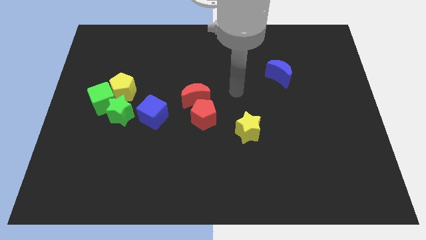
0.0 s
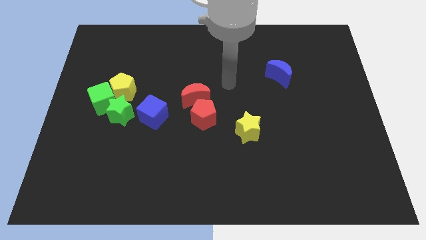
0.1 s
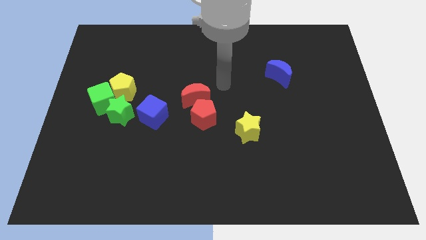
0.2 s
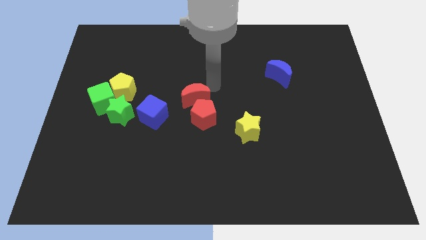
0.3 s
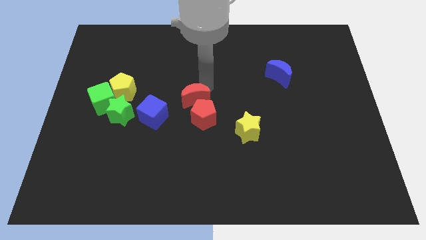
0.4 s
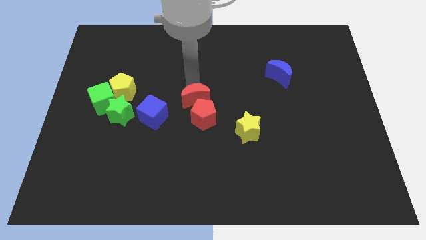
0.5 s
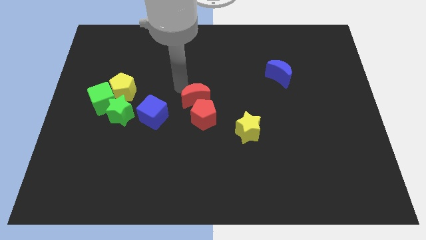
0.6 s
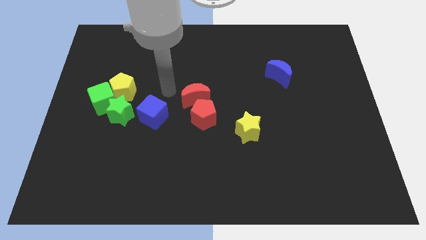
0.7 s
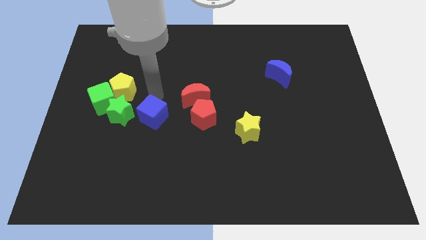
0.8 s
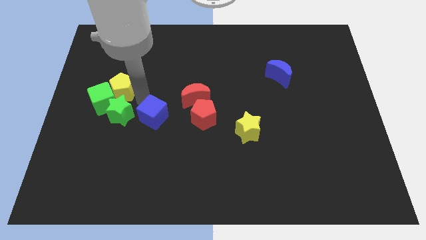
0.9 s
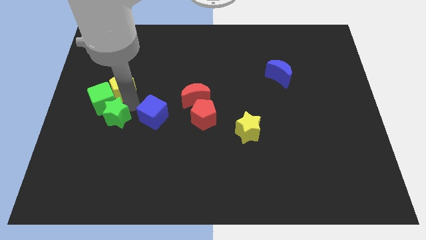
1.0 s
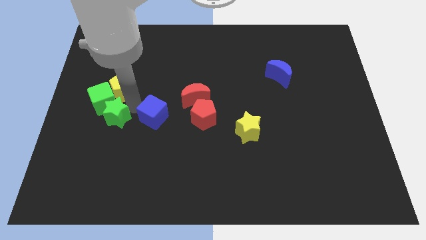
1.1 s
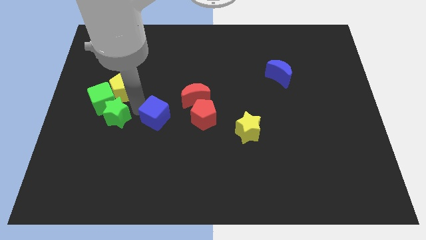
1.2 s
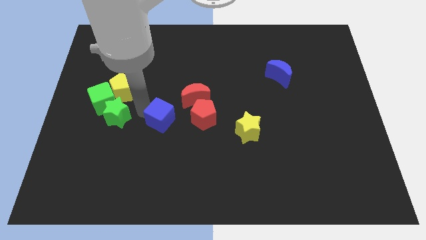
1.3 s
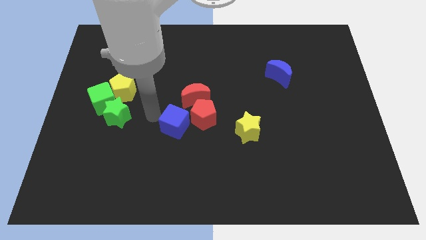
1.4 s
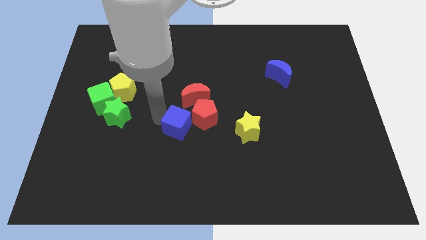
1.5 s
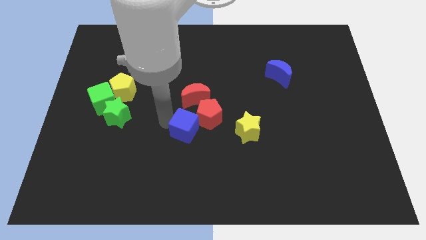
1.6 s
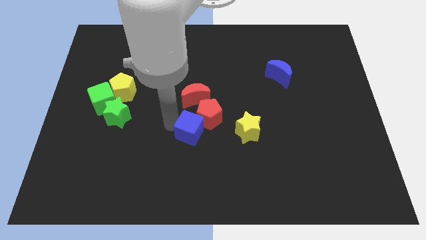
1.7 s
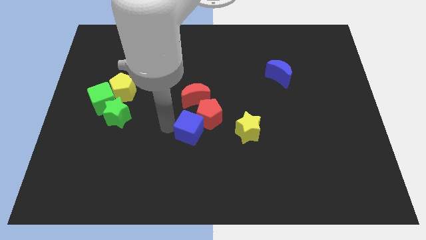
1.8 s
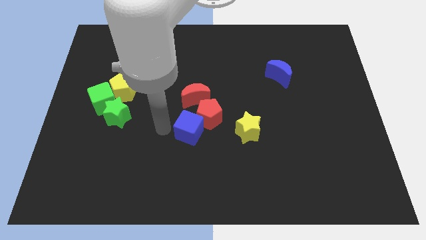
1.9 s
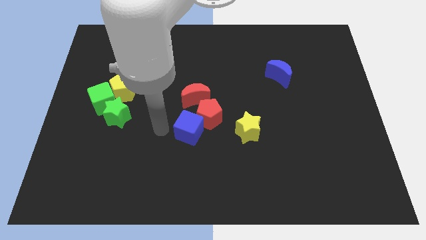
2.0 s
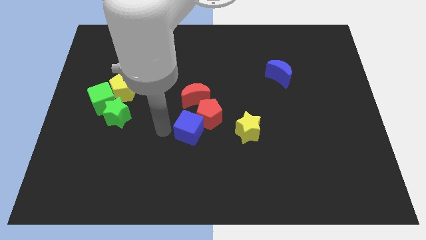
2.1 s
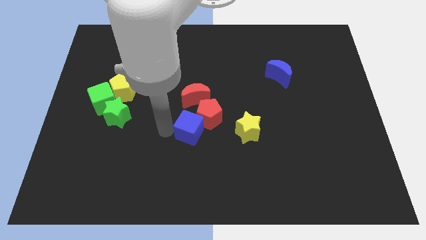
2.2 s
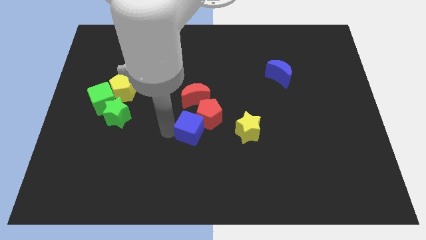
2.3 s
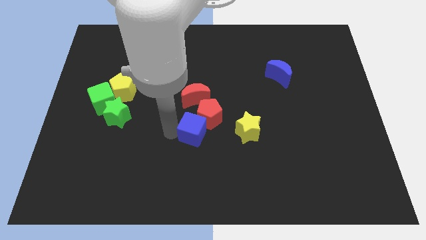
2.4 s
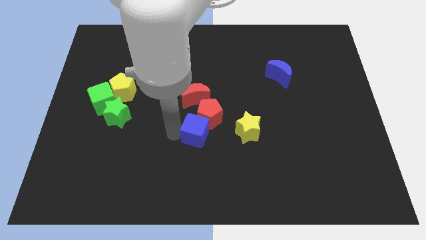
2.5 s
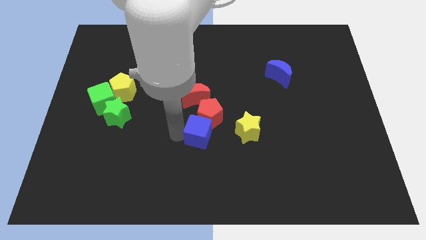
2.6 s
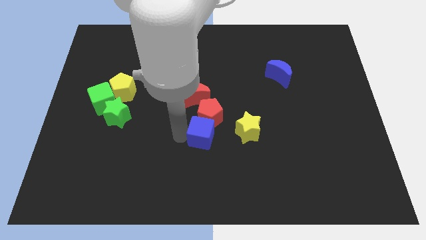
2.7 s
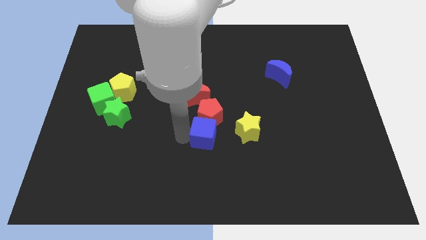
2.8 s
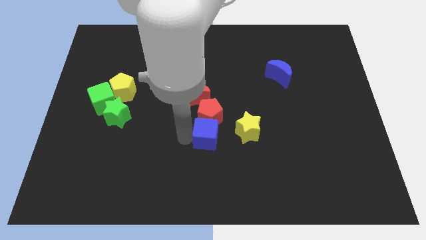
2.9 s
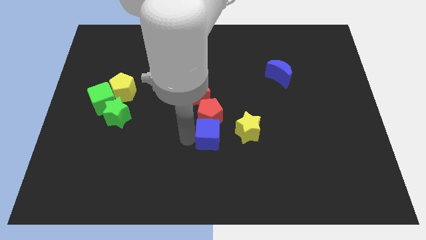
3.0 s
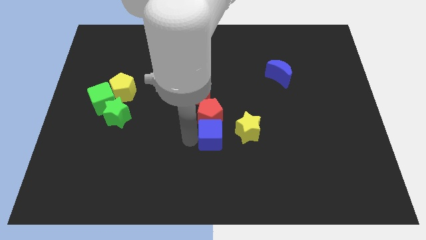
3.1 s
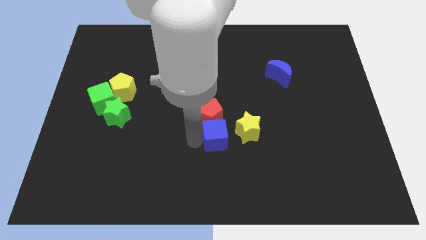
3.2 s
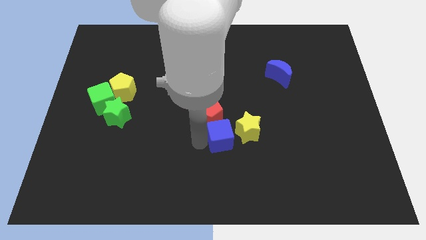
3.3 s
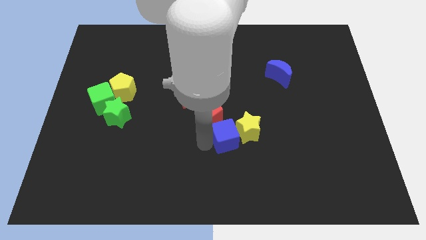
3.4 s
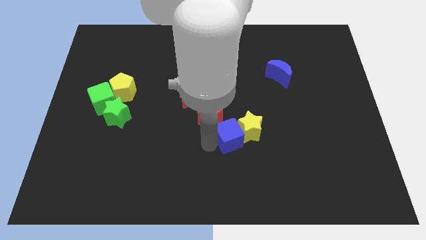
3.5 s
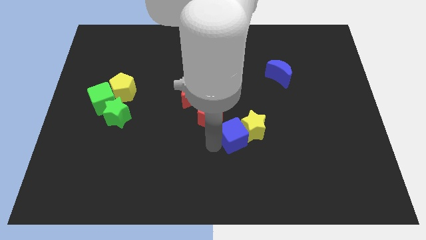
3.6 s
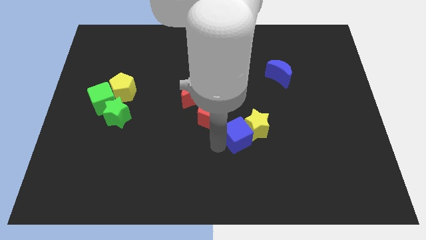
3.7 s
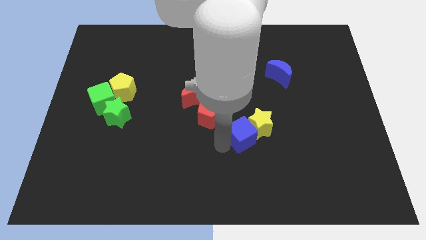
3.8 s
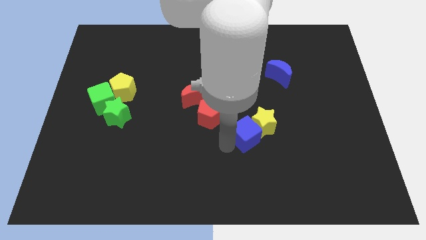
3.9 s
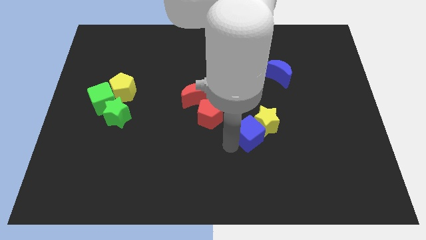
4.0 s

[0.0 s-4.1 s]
move the blue cube right

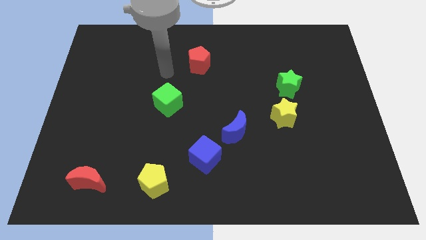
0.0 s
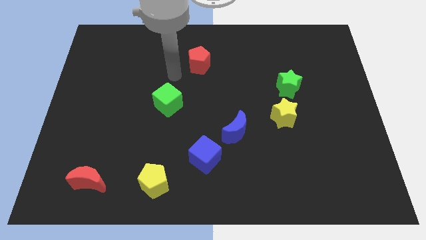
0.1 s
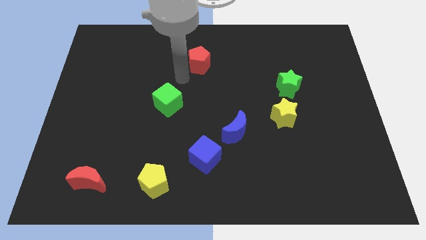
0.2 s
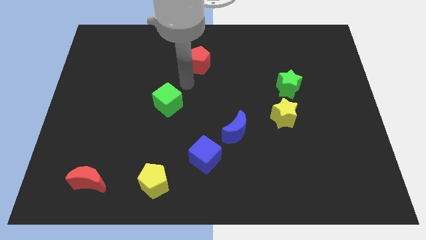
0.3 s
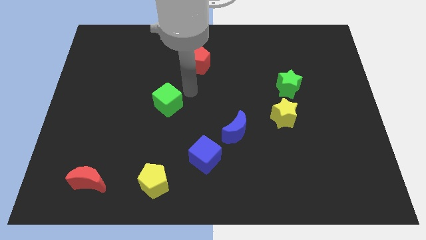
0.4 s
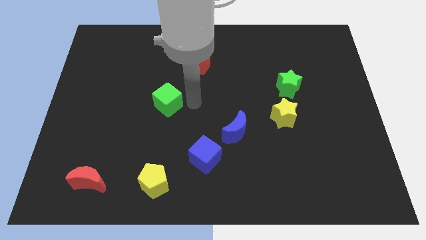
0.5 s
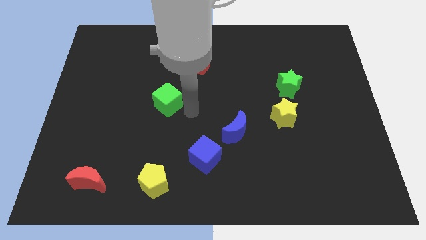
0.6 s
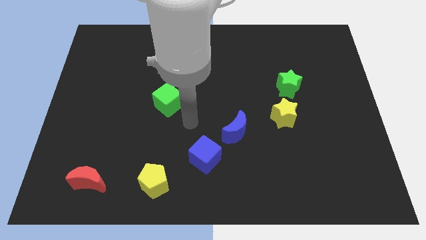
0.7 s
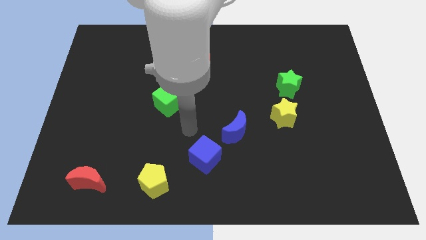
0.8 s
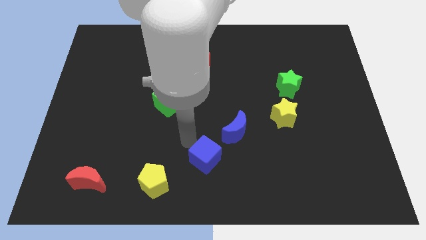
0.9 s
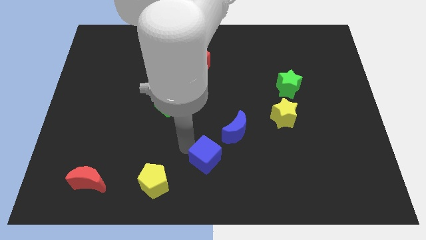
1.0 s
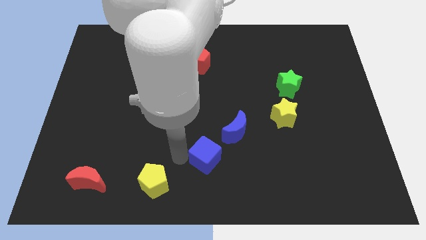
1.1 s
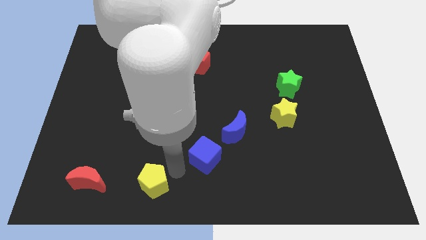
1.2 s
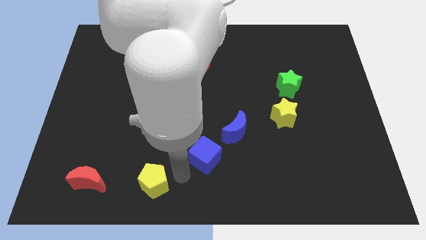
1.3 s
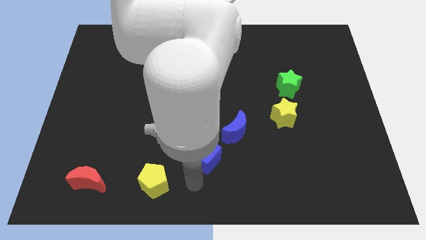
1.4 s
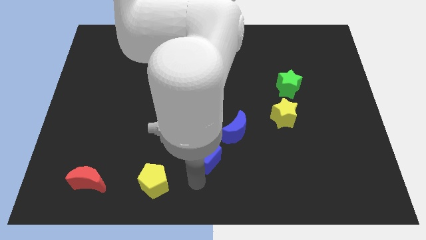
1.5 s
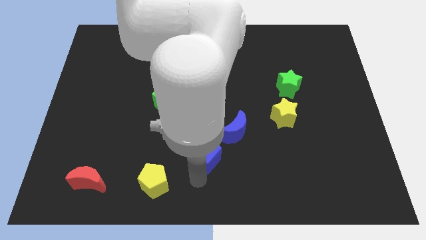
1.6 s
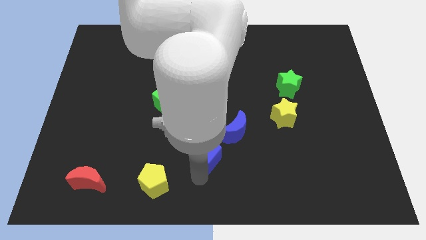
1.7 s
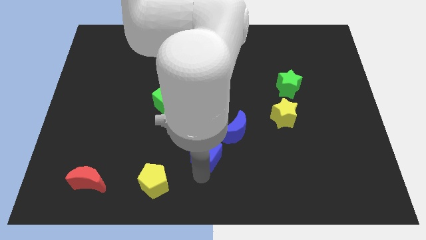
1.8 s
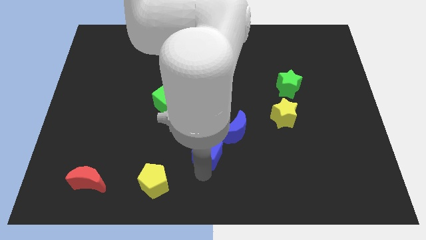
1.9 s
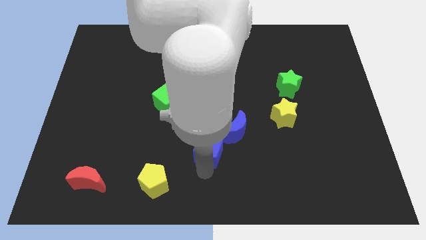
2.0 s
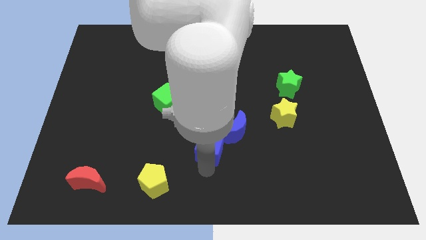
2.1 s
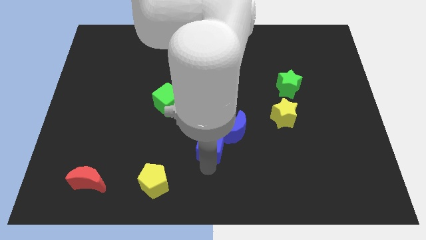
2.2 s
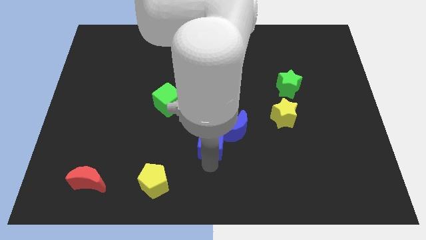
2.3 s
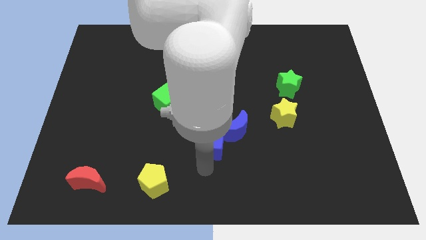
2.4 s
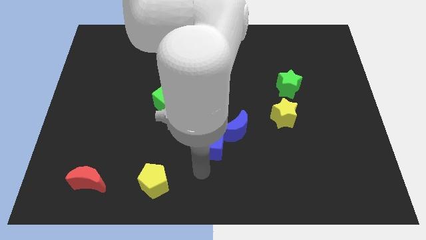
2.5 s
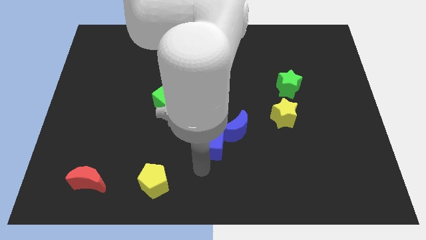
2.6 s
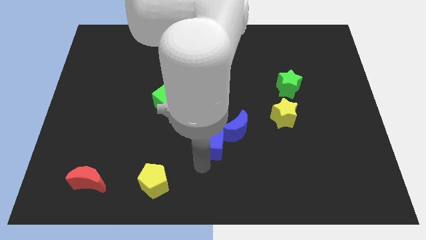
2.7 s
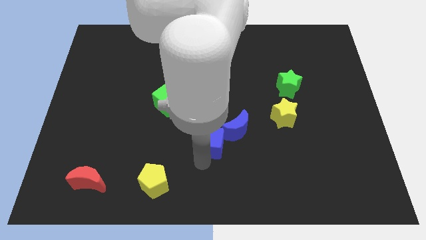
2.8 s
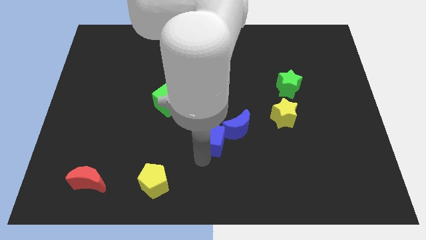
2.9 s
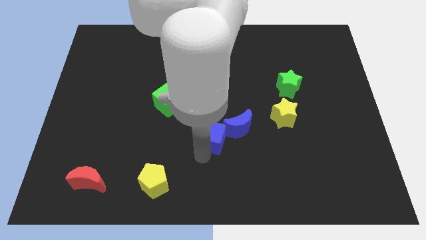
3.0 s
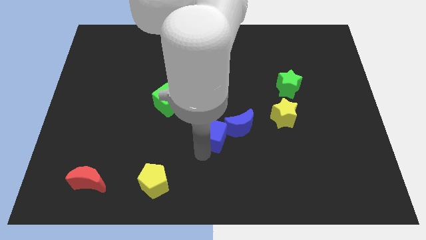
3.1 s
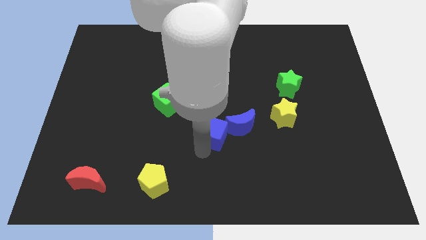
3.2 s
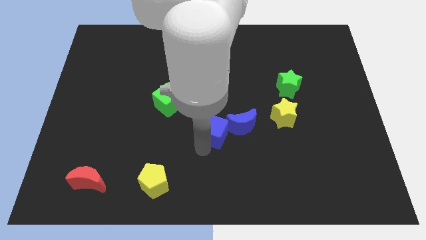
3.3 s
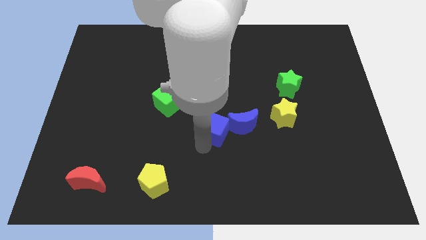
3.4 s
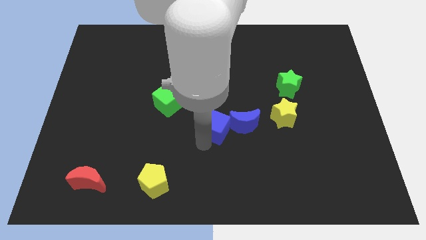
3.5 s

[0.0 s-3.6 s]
move the blue cube upwards a little bit
